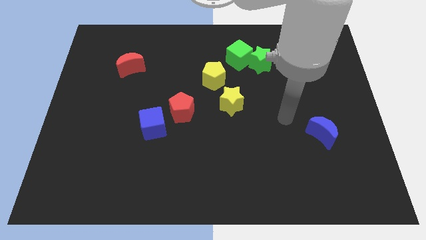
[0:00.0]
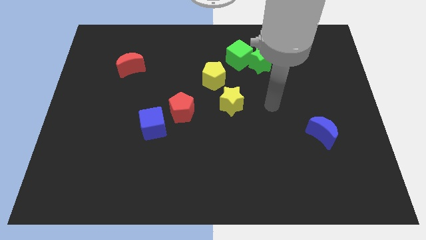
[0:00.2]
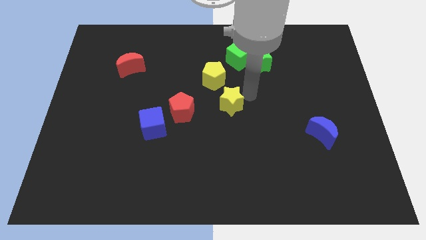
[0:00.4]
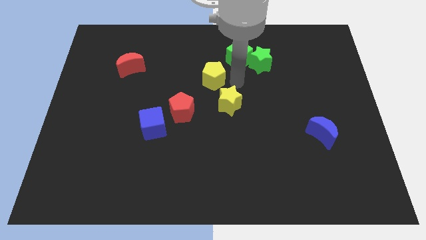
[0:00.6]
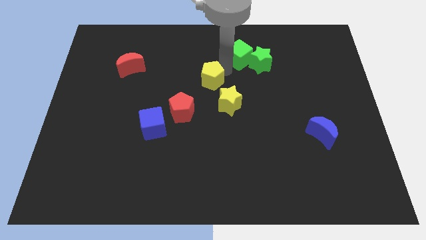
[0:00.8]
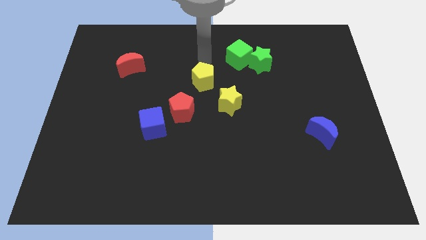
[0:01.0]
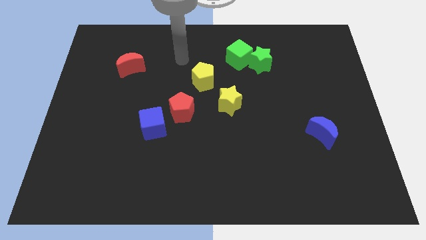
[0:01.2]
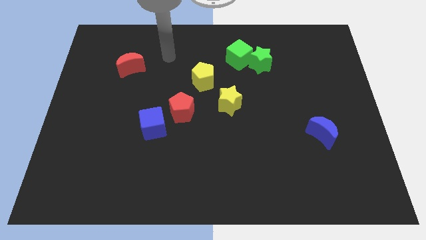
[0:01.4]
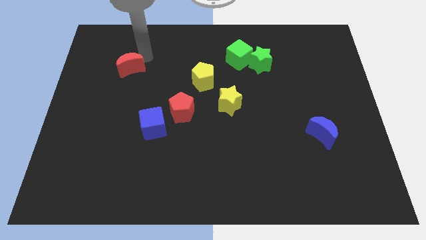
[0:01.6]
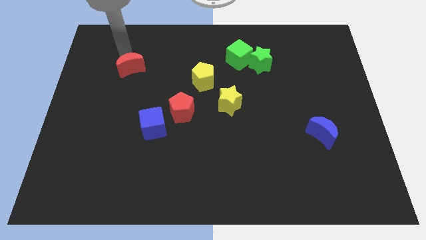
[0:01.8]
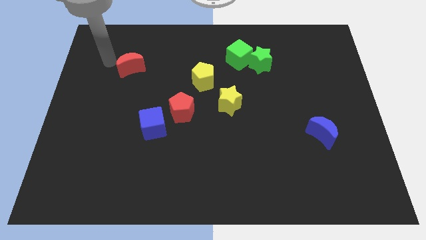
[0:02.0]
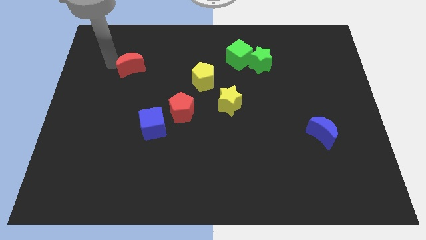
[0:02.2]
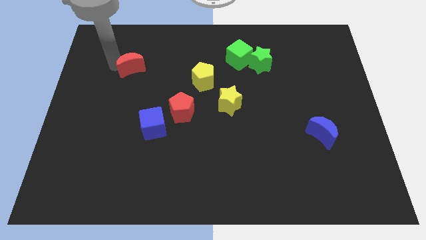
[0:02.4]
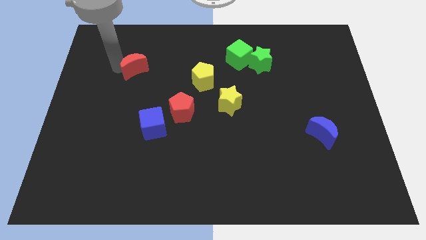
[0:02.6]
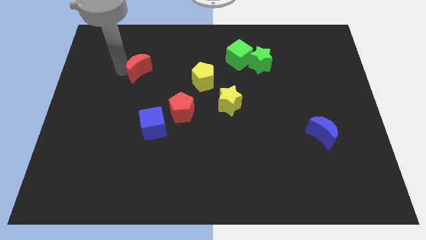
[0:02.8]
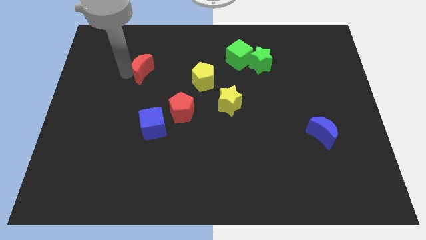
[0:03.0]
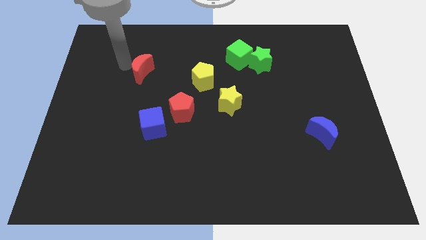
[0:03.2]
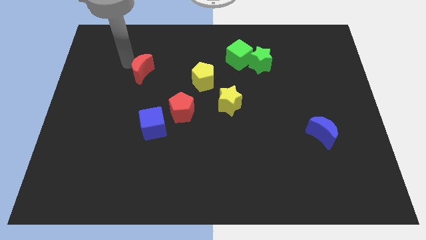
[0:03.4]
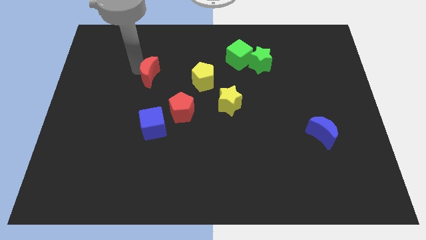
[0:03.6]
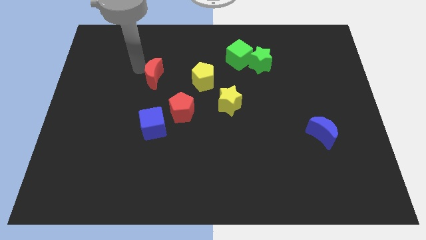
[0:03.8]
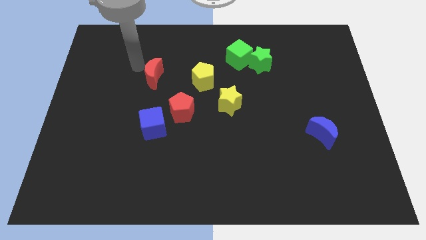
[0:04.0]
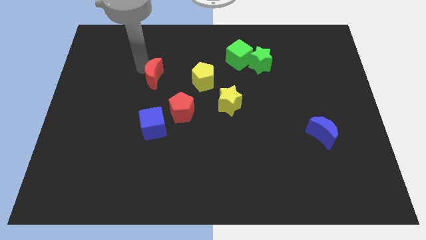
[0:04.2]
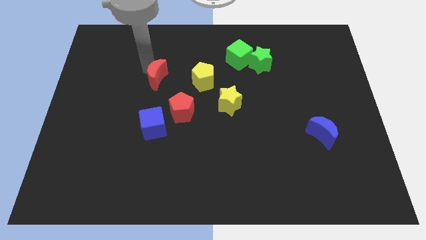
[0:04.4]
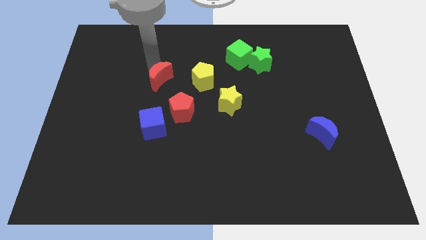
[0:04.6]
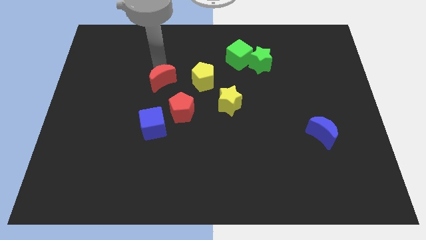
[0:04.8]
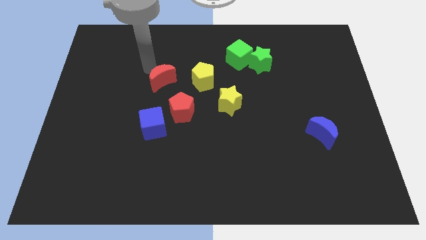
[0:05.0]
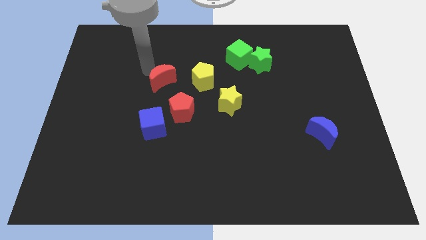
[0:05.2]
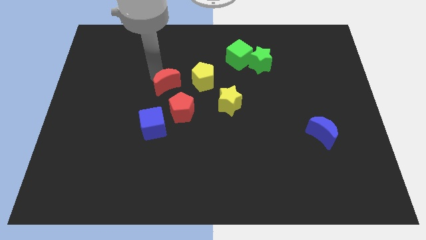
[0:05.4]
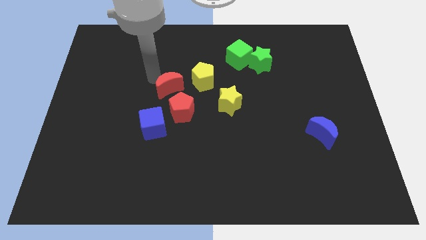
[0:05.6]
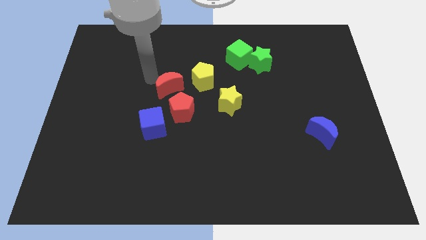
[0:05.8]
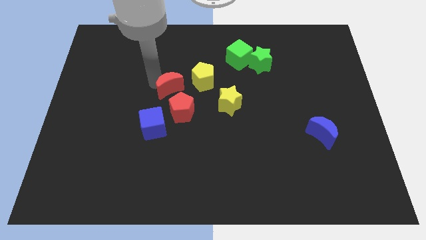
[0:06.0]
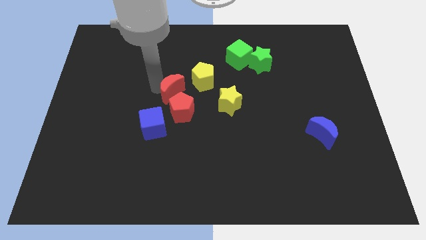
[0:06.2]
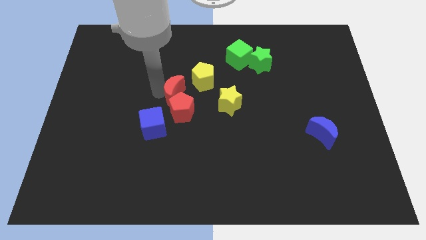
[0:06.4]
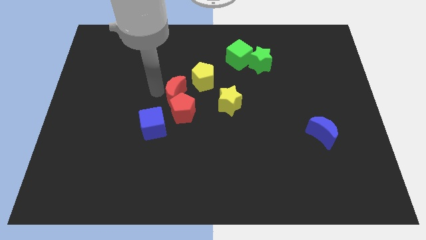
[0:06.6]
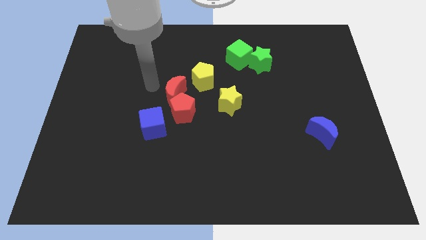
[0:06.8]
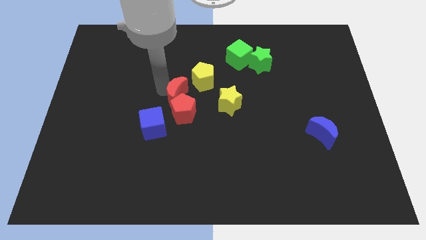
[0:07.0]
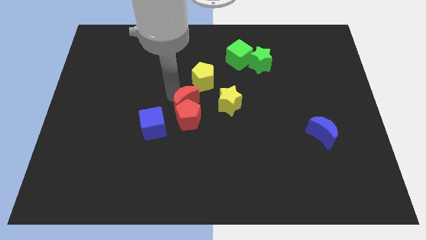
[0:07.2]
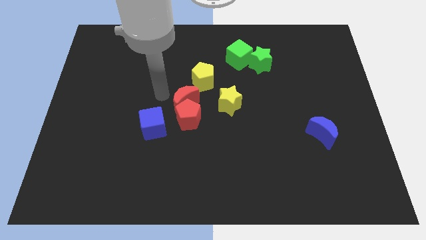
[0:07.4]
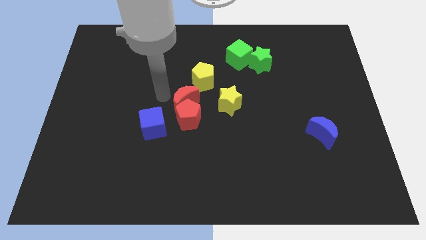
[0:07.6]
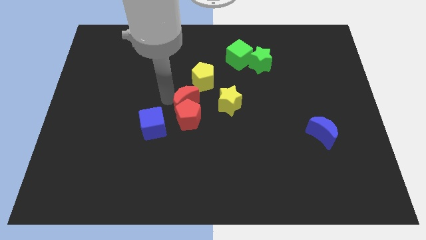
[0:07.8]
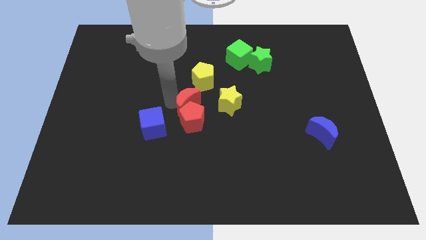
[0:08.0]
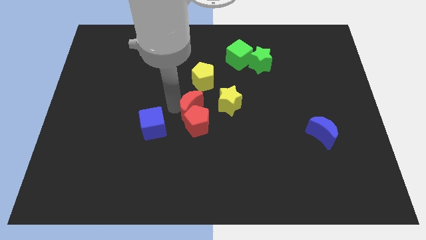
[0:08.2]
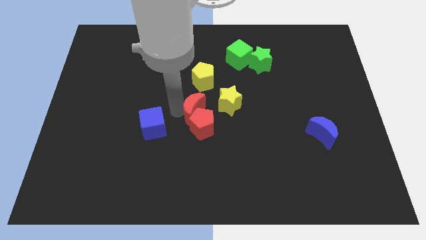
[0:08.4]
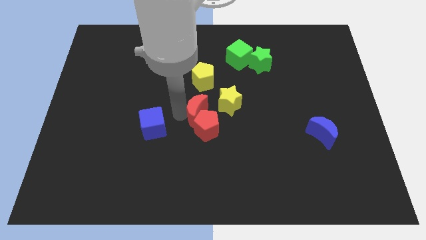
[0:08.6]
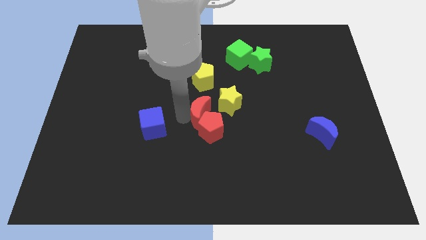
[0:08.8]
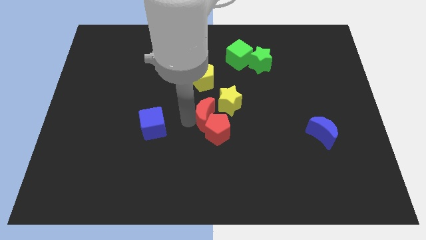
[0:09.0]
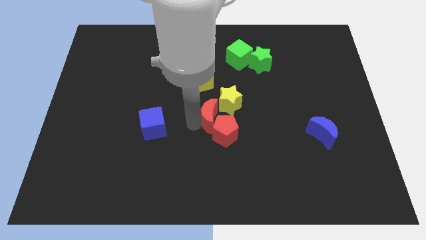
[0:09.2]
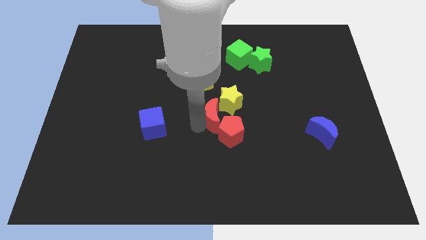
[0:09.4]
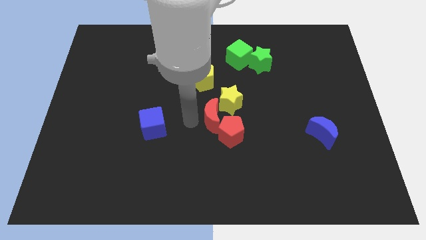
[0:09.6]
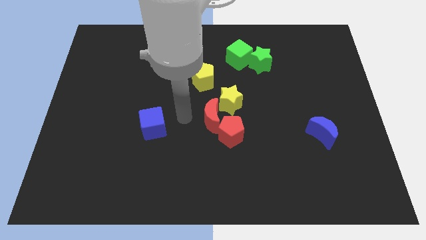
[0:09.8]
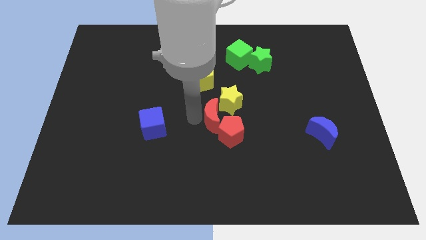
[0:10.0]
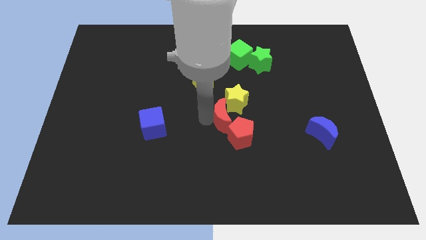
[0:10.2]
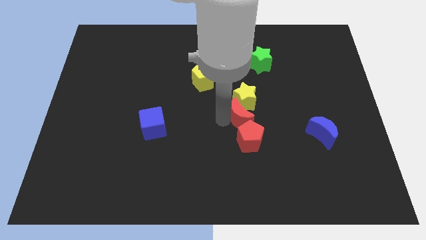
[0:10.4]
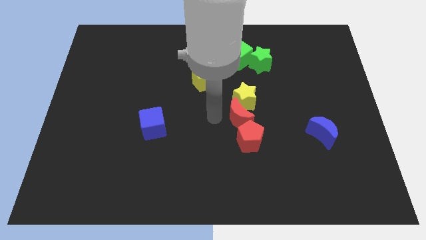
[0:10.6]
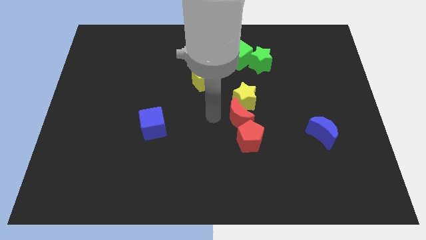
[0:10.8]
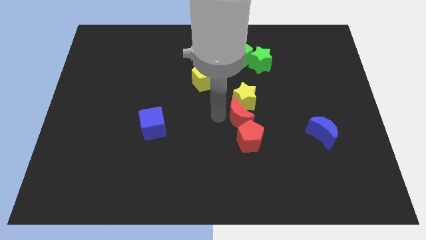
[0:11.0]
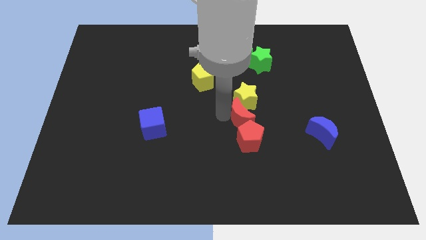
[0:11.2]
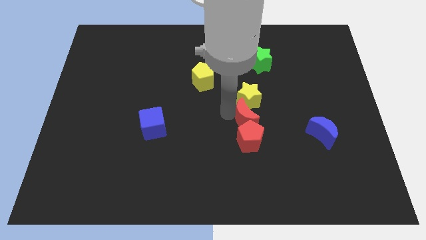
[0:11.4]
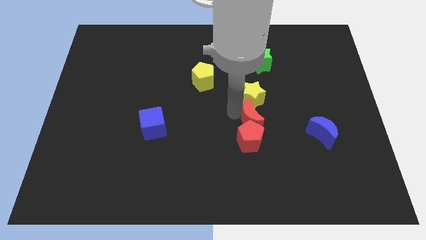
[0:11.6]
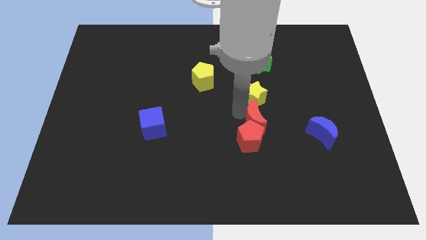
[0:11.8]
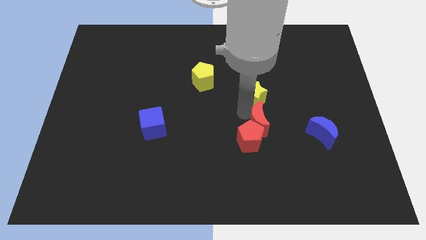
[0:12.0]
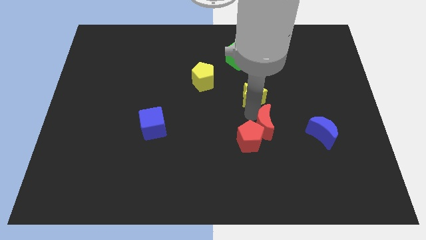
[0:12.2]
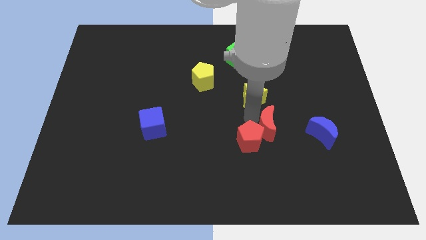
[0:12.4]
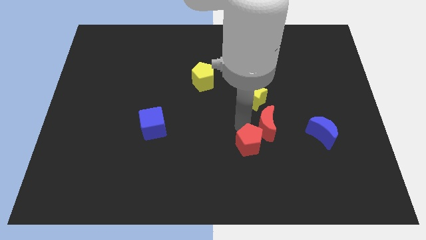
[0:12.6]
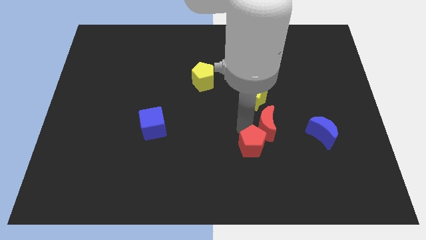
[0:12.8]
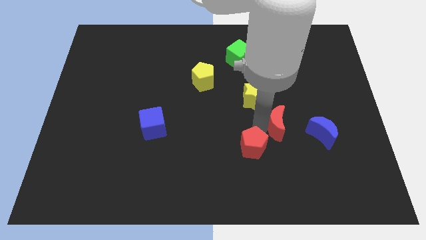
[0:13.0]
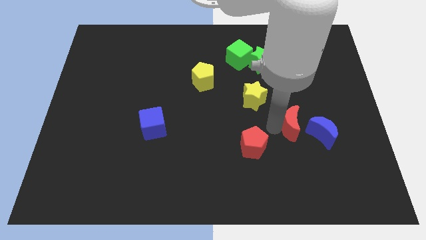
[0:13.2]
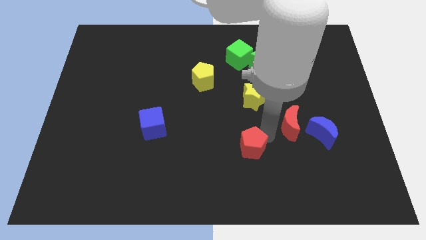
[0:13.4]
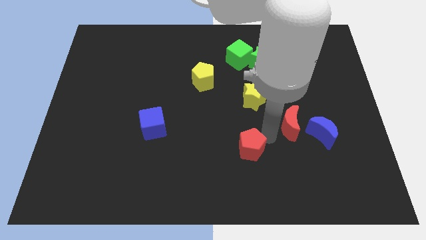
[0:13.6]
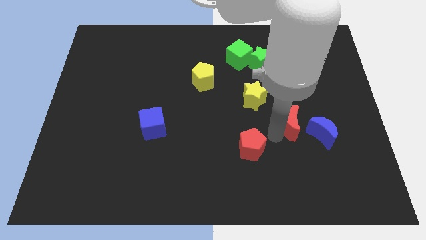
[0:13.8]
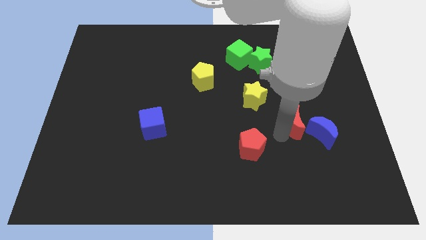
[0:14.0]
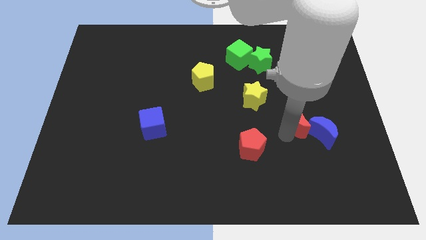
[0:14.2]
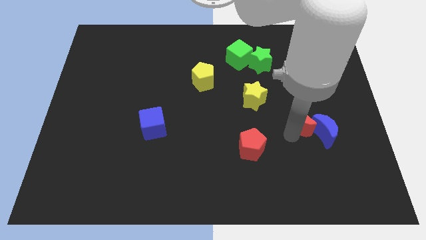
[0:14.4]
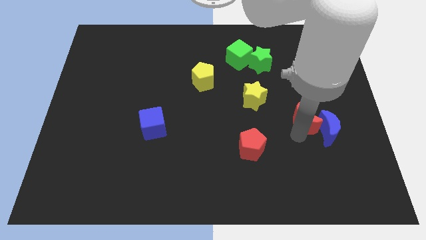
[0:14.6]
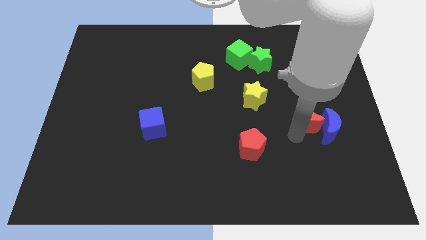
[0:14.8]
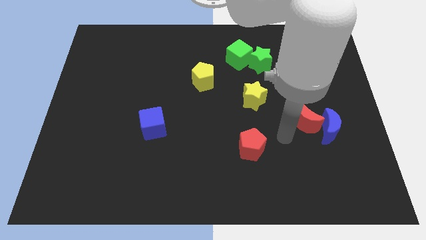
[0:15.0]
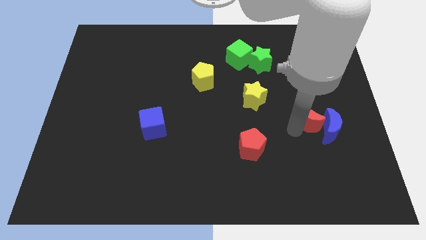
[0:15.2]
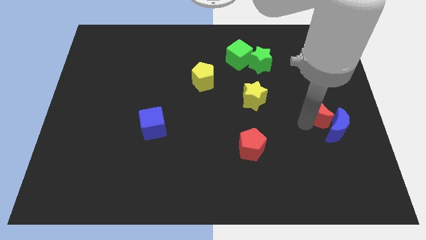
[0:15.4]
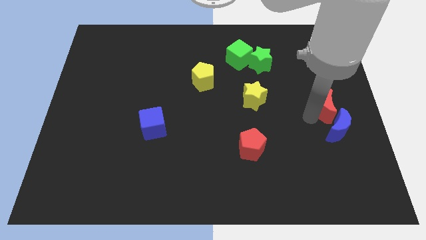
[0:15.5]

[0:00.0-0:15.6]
move the red moon to the center right

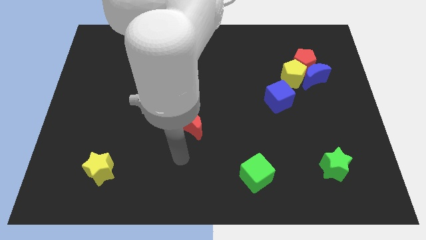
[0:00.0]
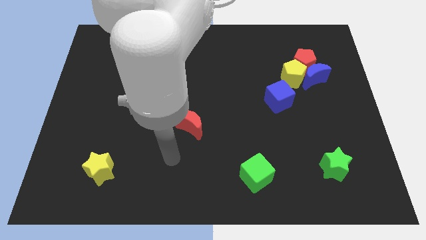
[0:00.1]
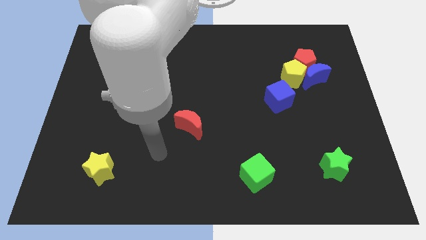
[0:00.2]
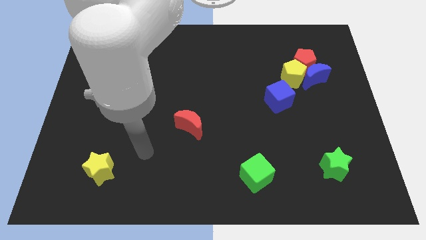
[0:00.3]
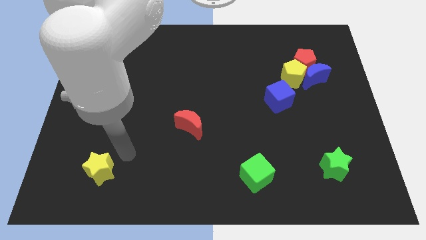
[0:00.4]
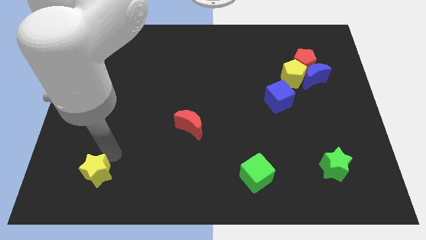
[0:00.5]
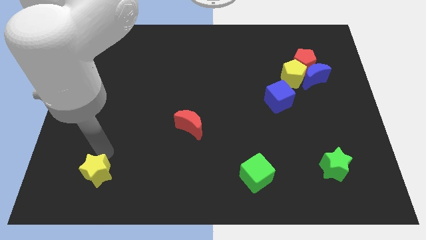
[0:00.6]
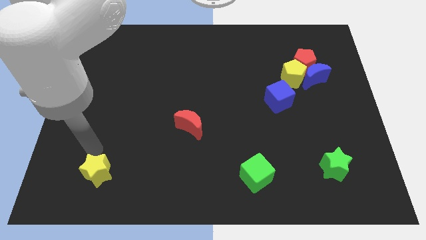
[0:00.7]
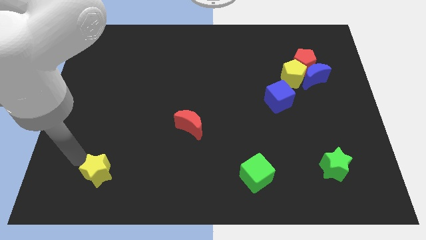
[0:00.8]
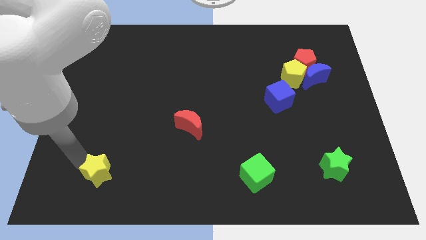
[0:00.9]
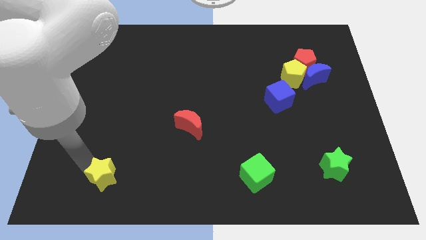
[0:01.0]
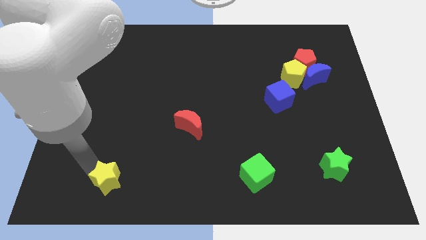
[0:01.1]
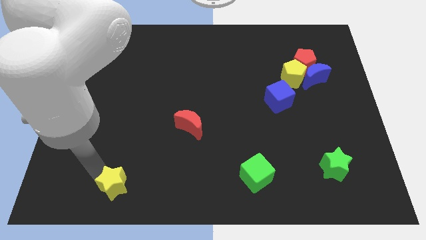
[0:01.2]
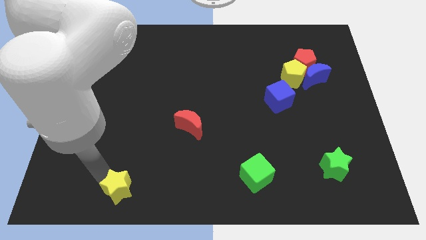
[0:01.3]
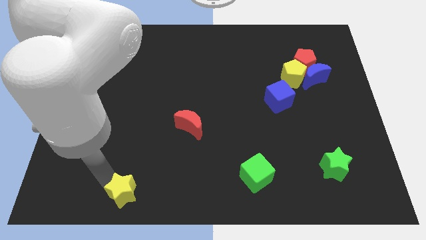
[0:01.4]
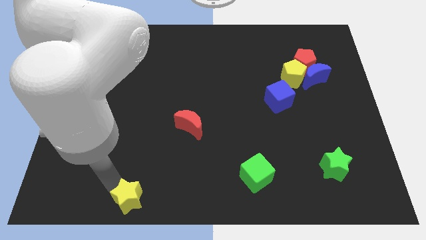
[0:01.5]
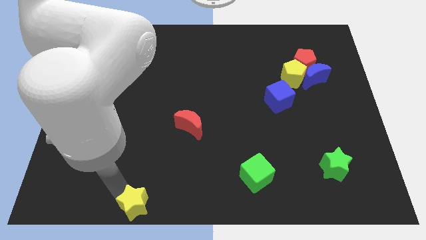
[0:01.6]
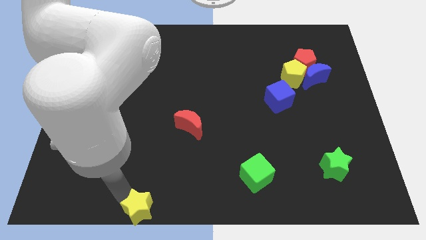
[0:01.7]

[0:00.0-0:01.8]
push the yellow star to the bottom side
